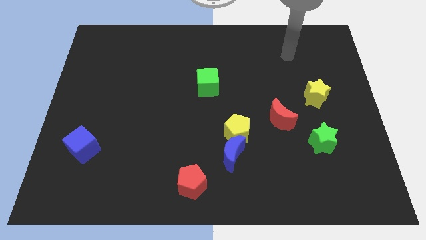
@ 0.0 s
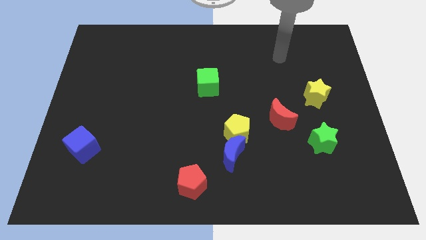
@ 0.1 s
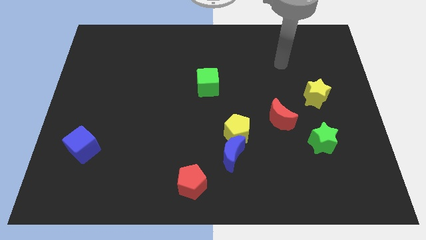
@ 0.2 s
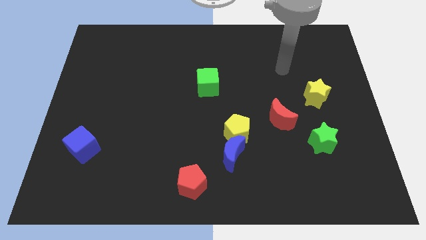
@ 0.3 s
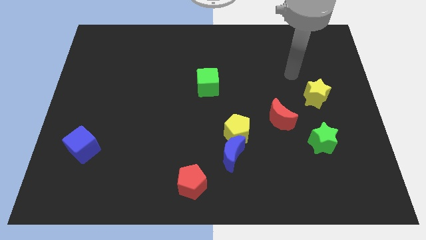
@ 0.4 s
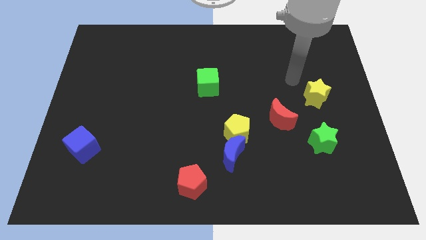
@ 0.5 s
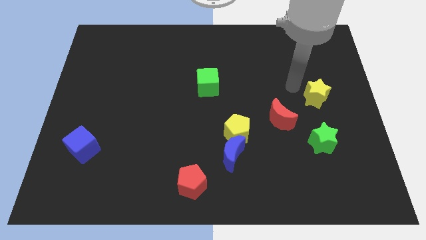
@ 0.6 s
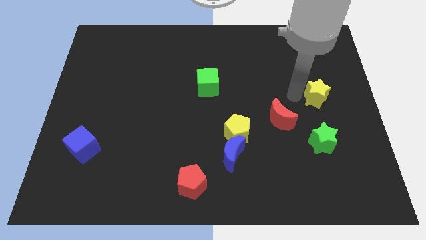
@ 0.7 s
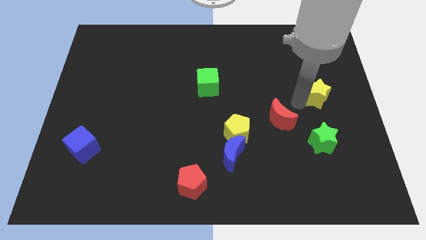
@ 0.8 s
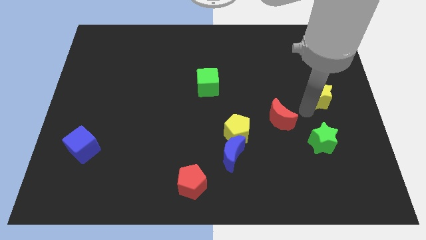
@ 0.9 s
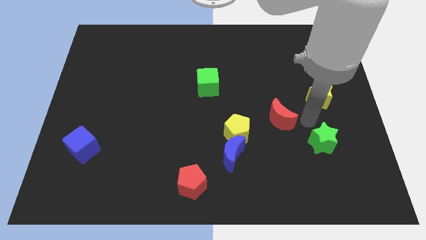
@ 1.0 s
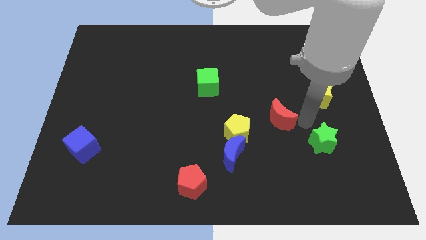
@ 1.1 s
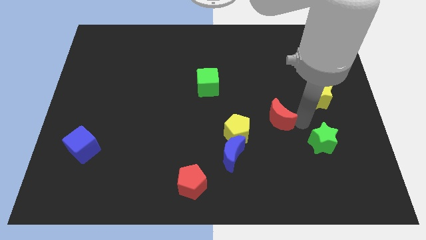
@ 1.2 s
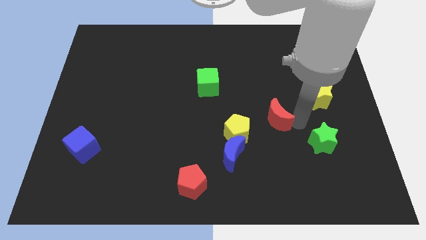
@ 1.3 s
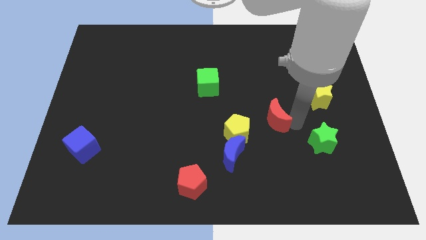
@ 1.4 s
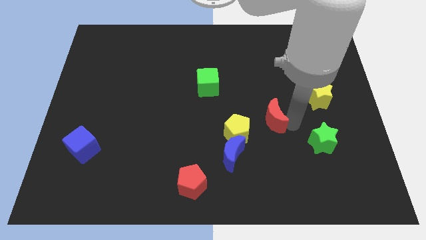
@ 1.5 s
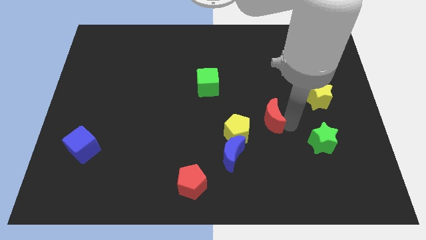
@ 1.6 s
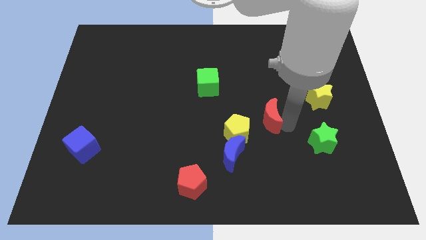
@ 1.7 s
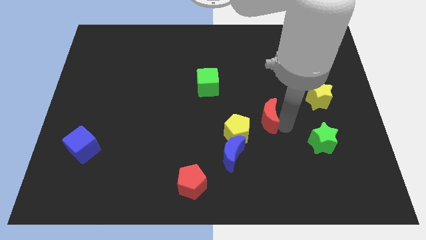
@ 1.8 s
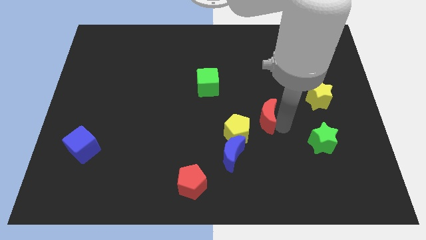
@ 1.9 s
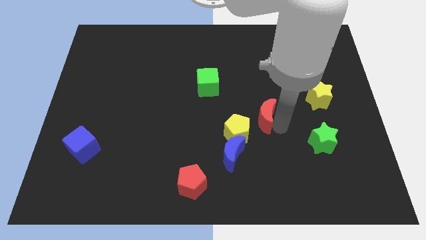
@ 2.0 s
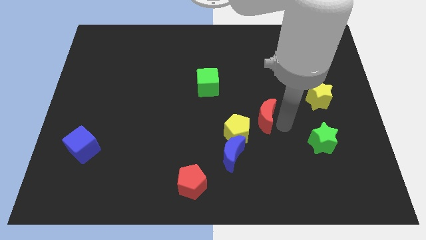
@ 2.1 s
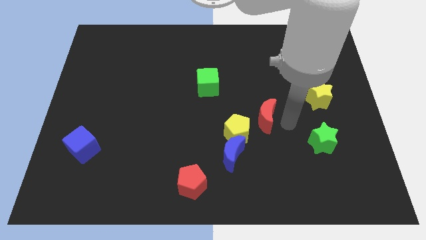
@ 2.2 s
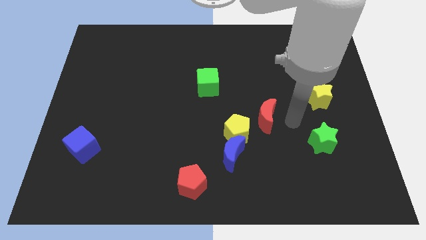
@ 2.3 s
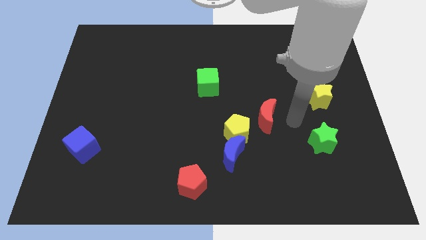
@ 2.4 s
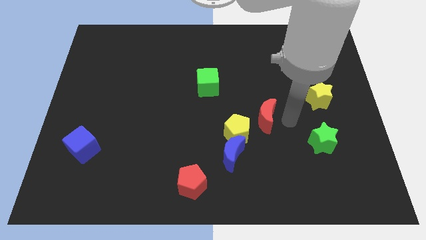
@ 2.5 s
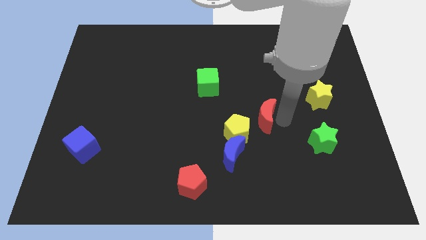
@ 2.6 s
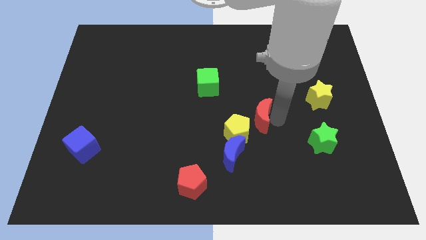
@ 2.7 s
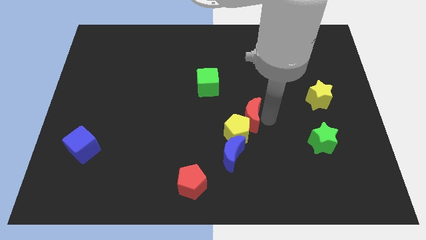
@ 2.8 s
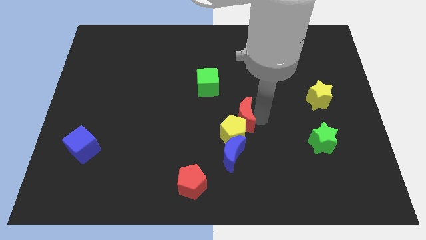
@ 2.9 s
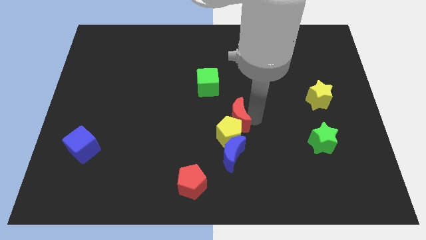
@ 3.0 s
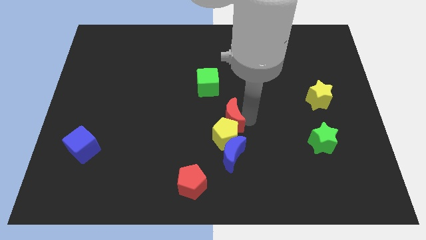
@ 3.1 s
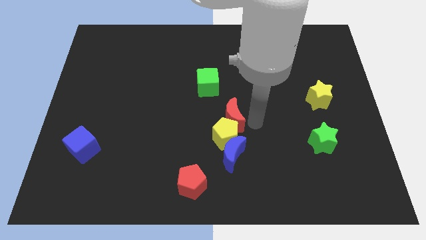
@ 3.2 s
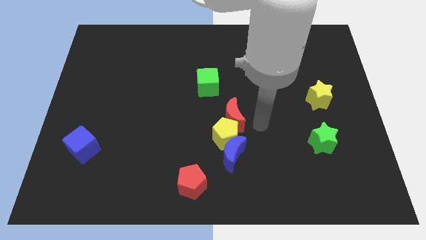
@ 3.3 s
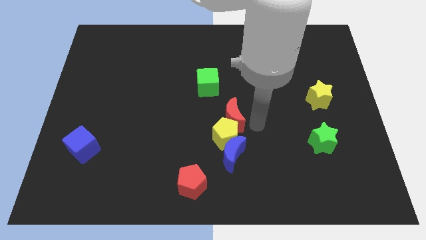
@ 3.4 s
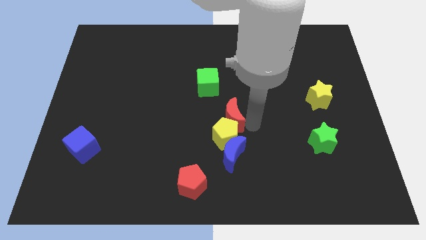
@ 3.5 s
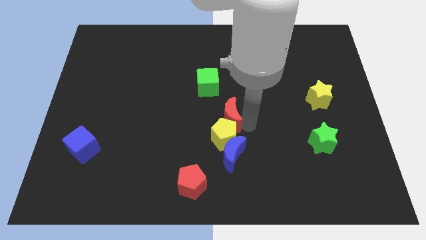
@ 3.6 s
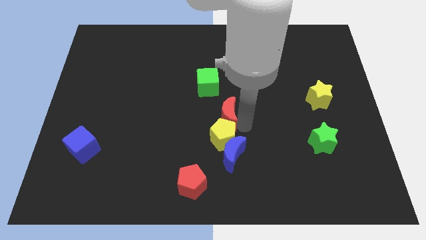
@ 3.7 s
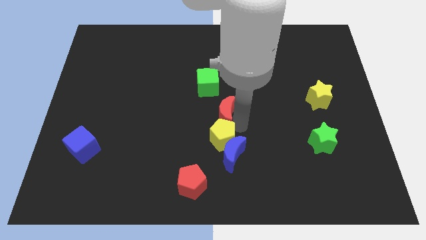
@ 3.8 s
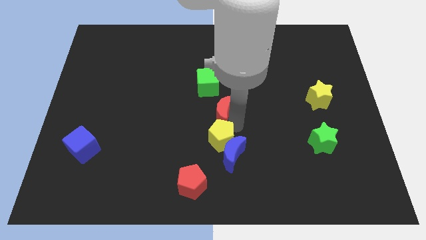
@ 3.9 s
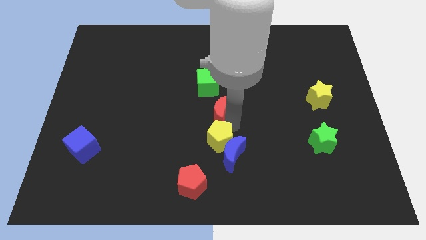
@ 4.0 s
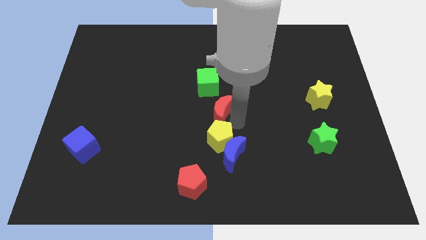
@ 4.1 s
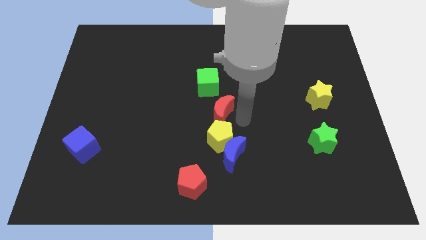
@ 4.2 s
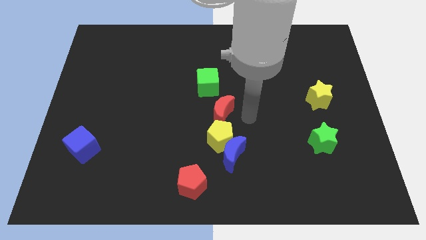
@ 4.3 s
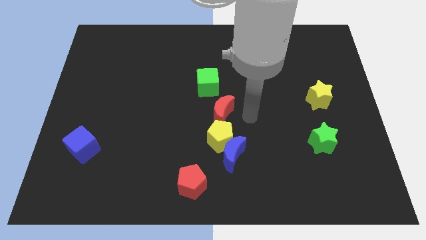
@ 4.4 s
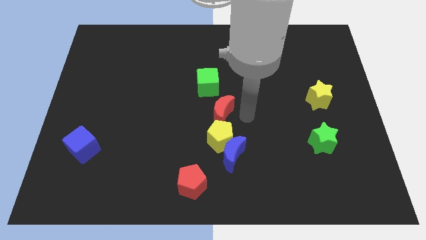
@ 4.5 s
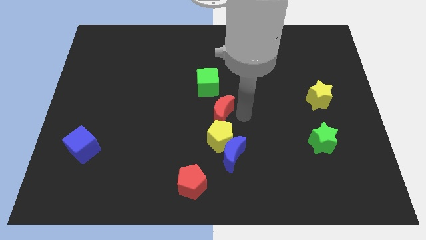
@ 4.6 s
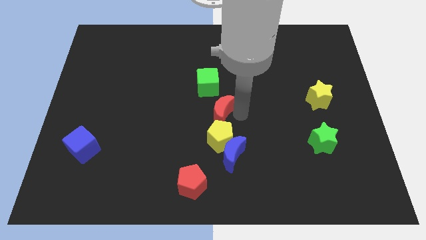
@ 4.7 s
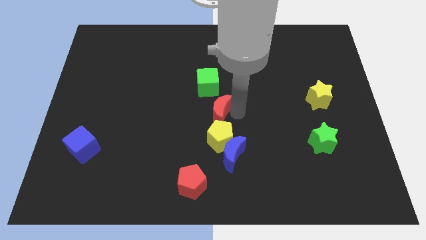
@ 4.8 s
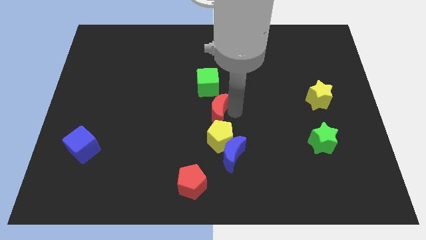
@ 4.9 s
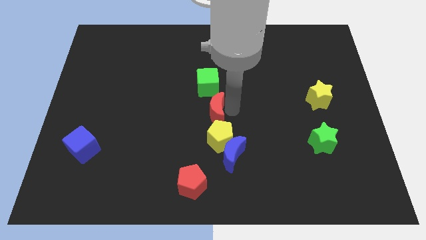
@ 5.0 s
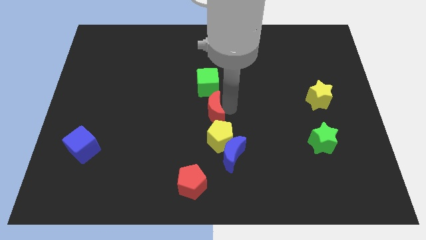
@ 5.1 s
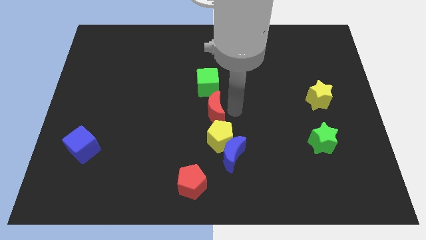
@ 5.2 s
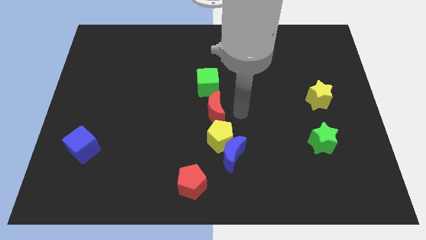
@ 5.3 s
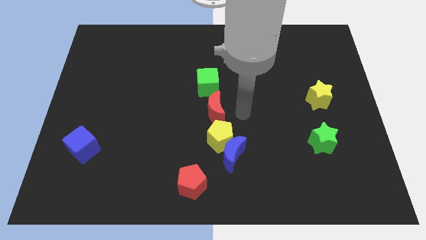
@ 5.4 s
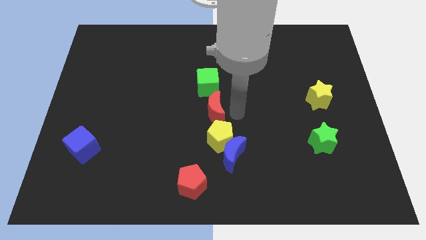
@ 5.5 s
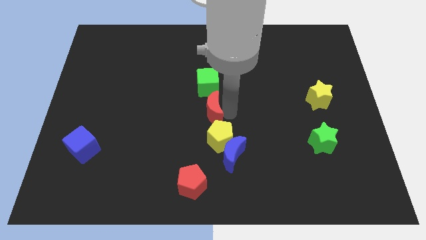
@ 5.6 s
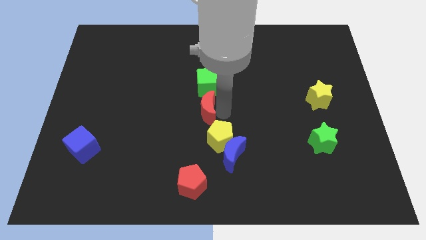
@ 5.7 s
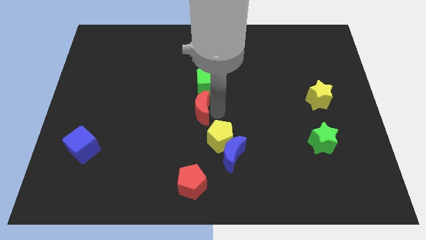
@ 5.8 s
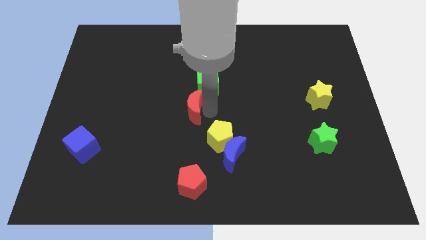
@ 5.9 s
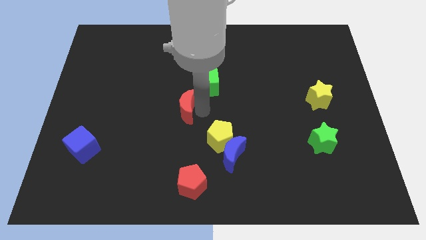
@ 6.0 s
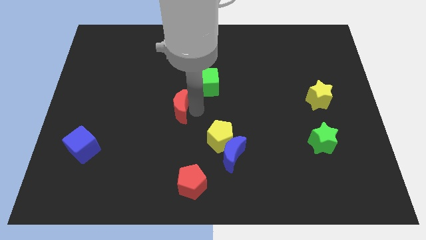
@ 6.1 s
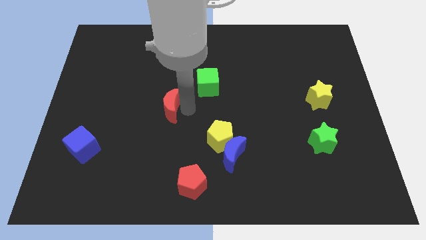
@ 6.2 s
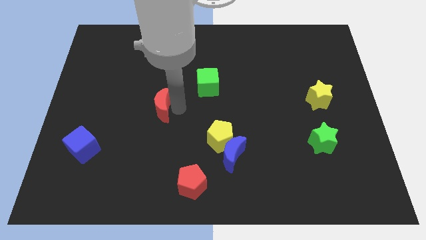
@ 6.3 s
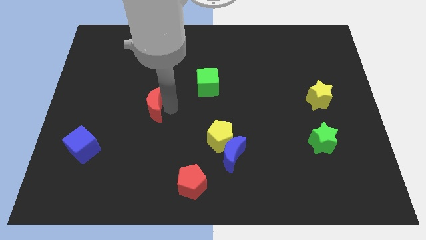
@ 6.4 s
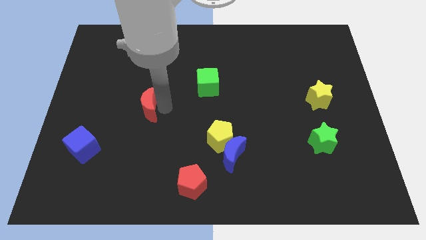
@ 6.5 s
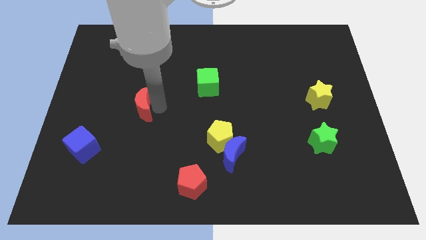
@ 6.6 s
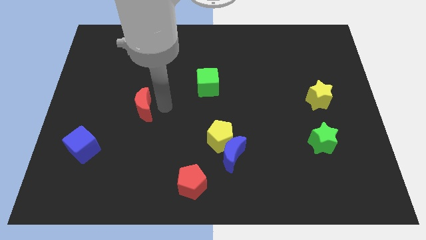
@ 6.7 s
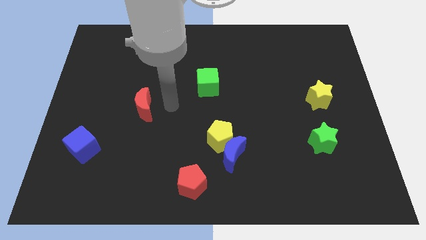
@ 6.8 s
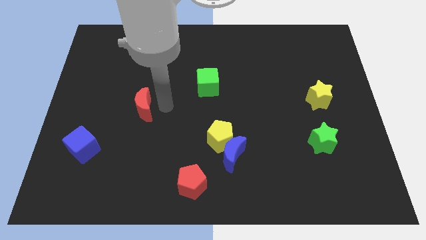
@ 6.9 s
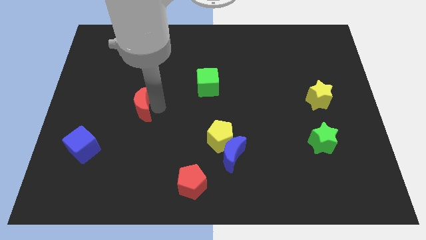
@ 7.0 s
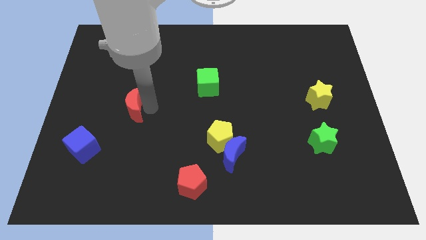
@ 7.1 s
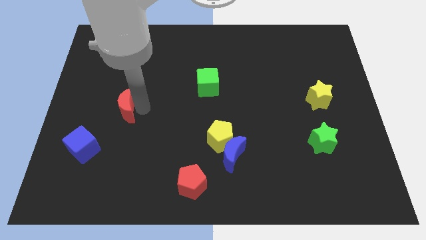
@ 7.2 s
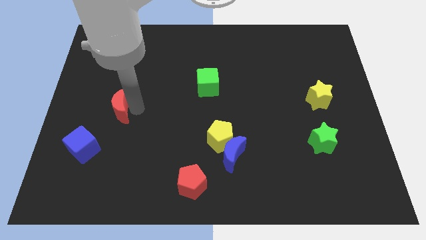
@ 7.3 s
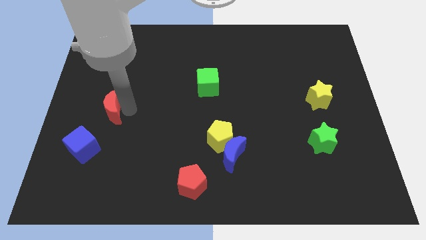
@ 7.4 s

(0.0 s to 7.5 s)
put the red moon to the top side of the blue cube

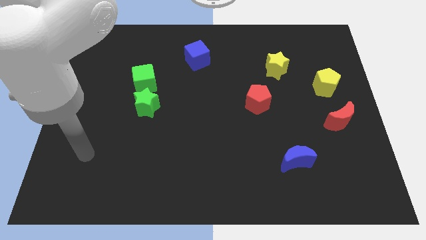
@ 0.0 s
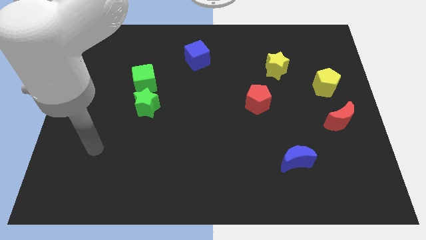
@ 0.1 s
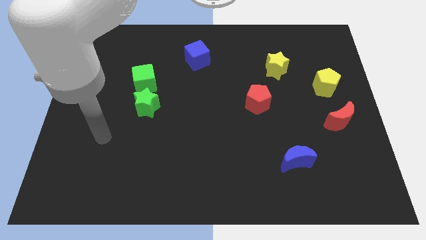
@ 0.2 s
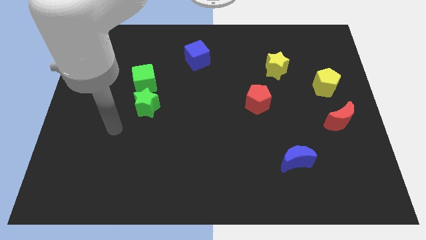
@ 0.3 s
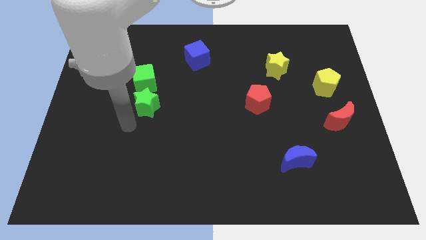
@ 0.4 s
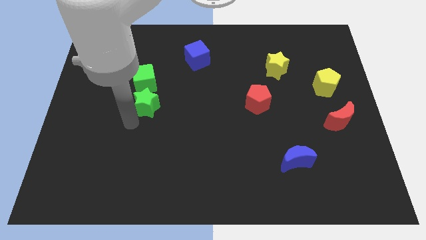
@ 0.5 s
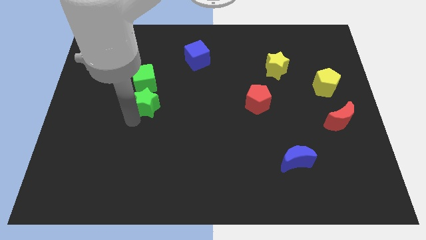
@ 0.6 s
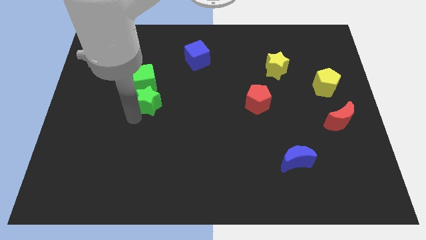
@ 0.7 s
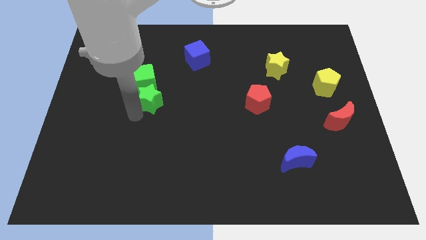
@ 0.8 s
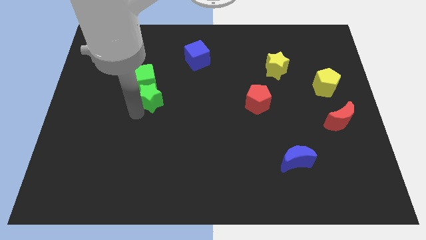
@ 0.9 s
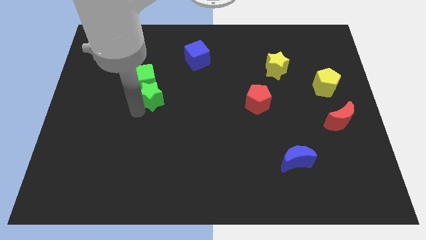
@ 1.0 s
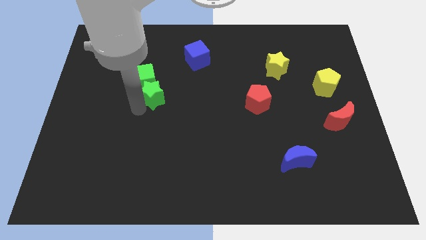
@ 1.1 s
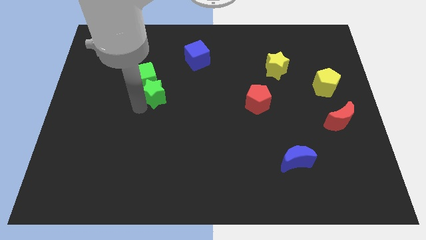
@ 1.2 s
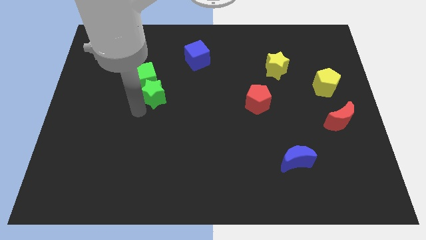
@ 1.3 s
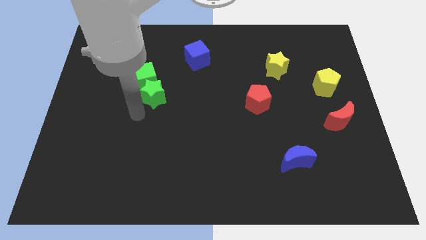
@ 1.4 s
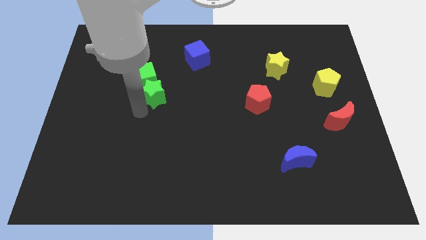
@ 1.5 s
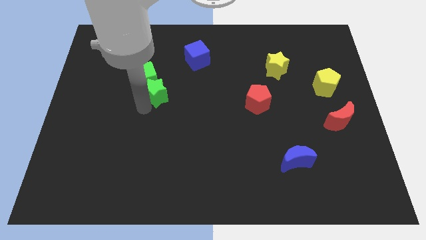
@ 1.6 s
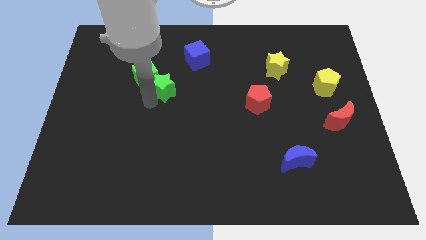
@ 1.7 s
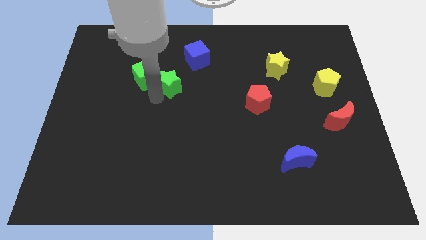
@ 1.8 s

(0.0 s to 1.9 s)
slide the green star to the bottom left of the blue cube
